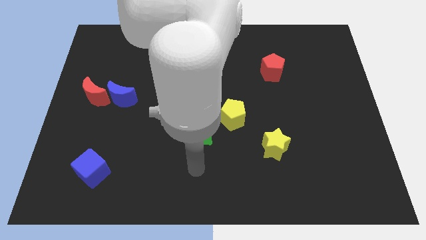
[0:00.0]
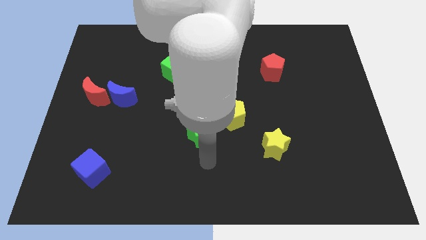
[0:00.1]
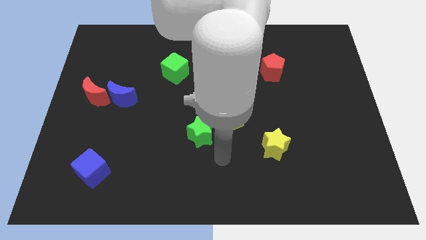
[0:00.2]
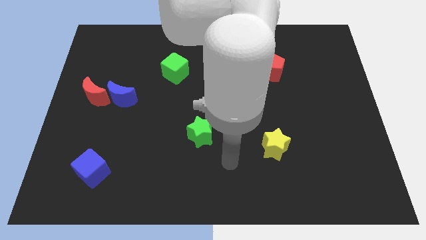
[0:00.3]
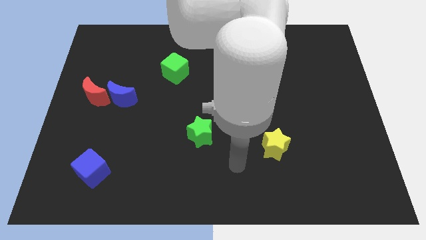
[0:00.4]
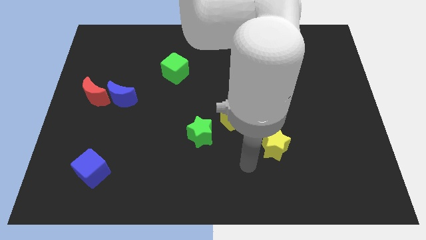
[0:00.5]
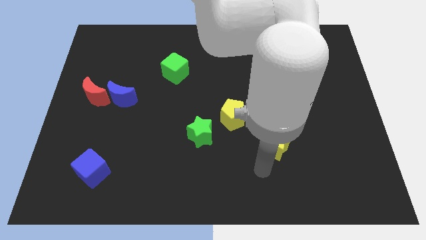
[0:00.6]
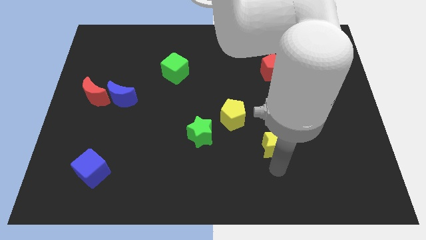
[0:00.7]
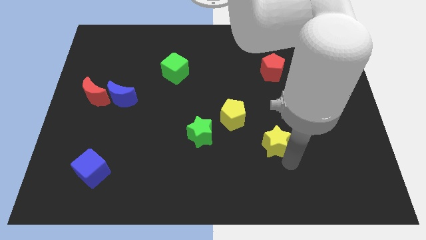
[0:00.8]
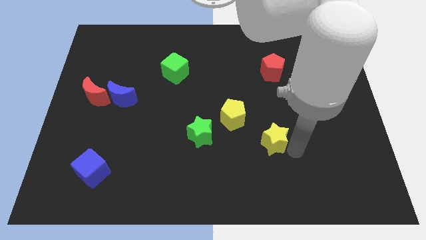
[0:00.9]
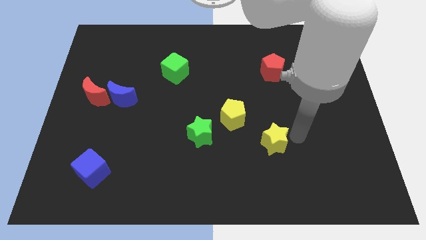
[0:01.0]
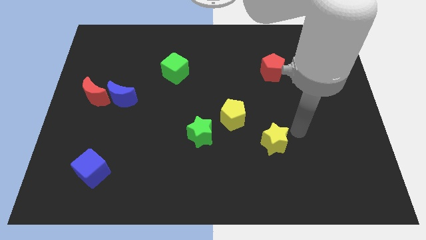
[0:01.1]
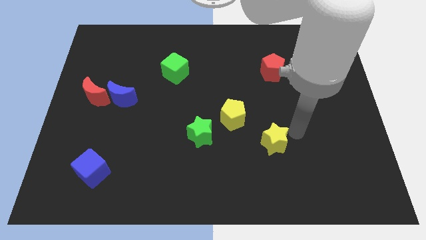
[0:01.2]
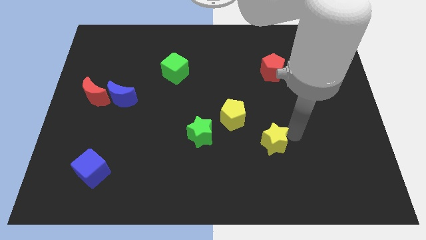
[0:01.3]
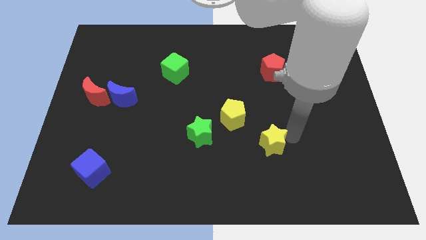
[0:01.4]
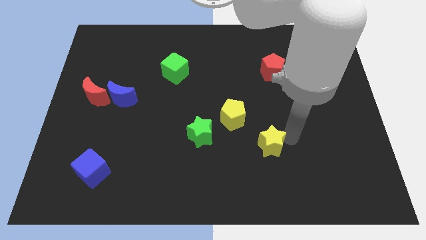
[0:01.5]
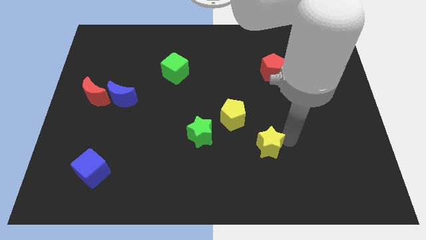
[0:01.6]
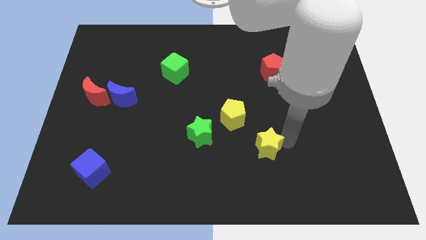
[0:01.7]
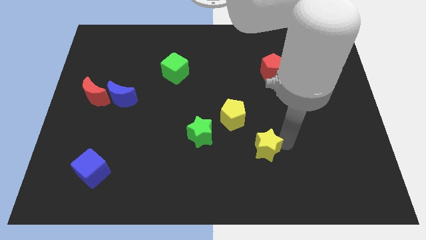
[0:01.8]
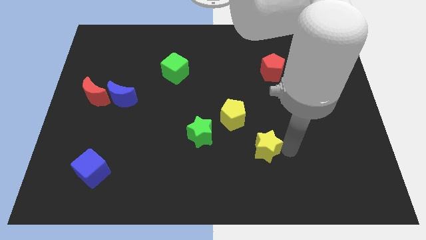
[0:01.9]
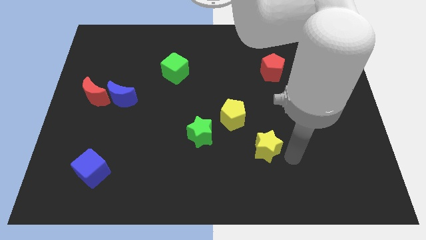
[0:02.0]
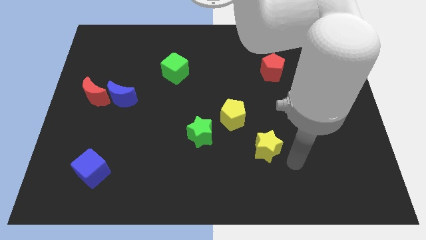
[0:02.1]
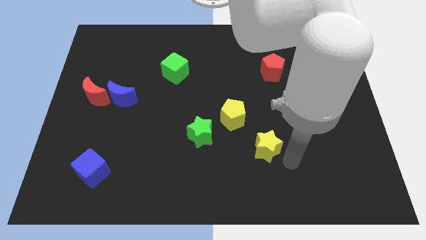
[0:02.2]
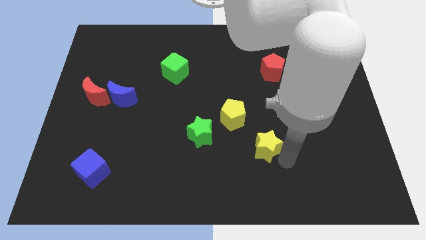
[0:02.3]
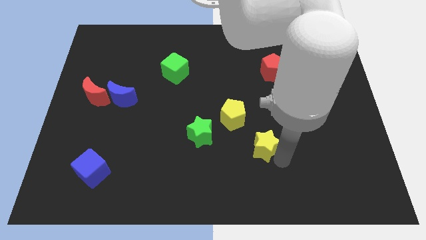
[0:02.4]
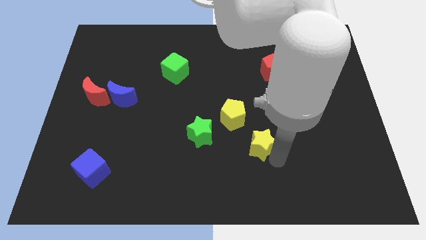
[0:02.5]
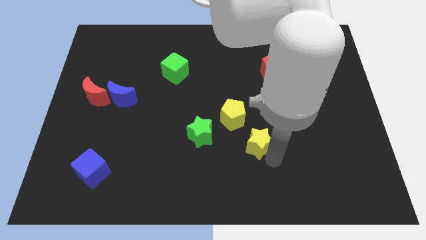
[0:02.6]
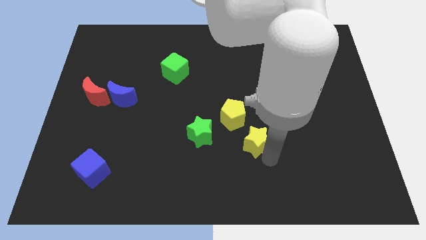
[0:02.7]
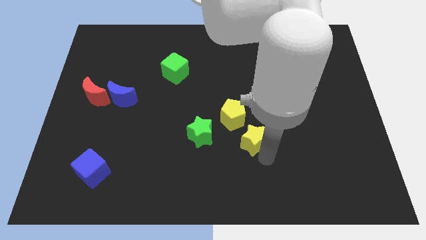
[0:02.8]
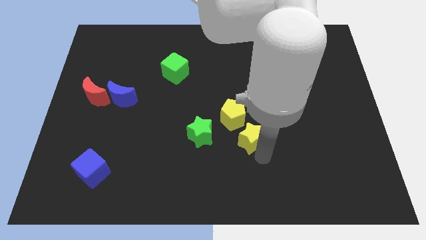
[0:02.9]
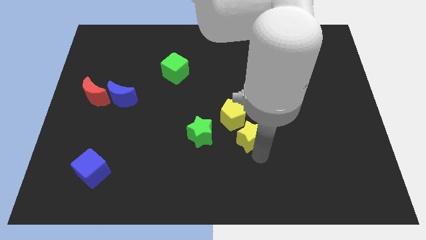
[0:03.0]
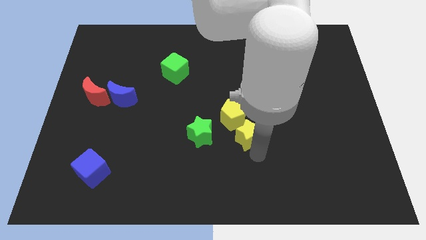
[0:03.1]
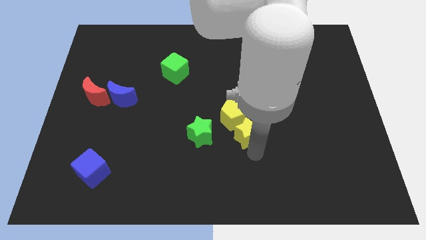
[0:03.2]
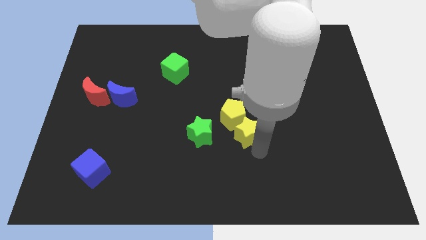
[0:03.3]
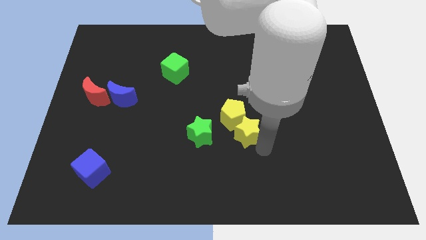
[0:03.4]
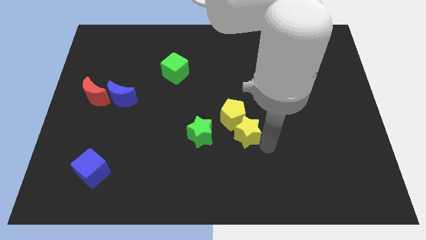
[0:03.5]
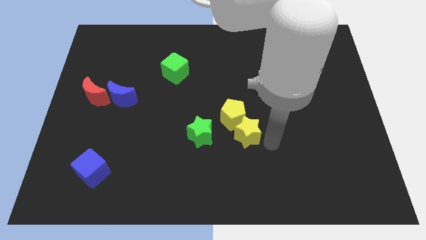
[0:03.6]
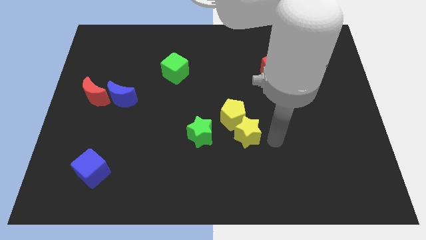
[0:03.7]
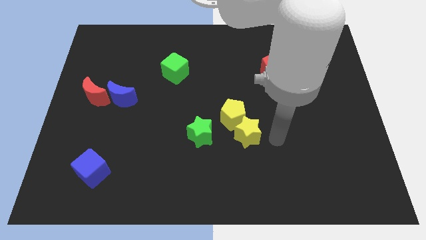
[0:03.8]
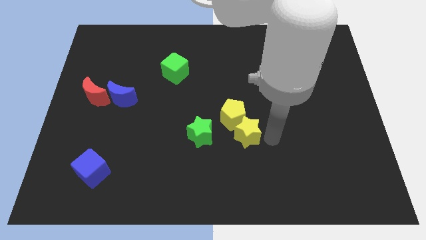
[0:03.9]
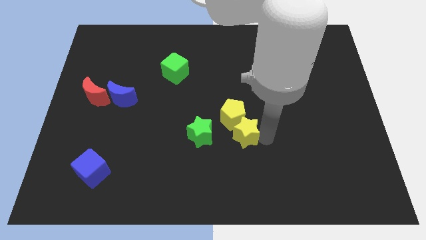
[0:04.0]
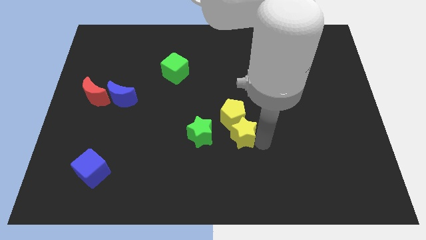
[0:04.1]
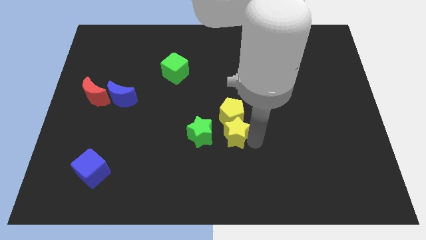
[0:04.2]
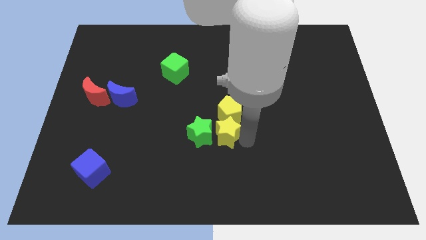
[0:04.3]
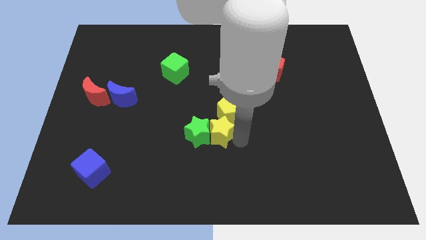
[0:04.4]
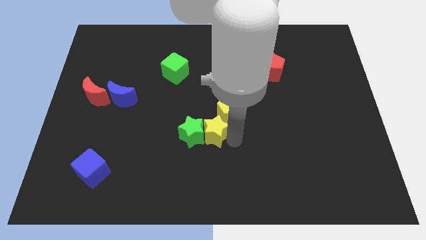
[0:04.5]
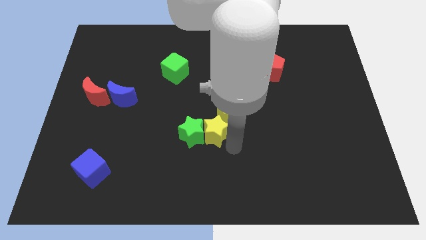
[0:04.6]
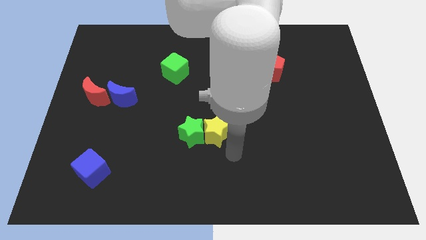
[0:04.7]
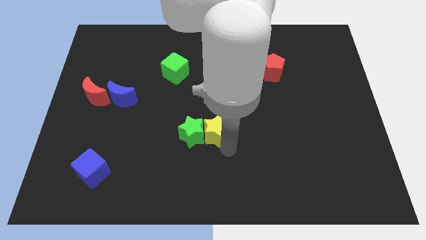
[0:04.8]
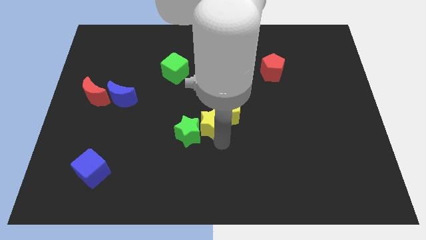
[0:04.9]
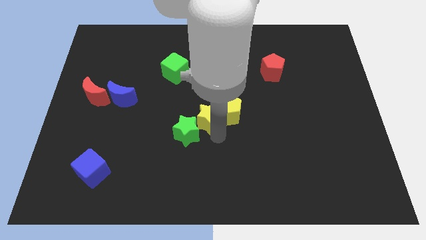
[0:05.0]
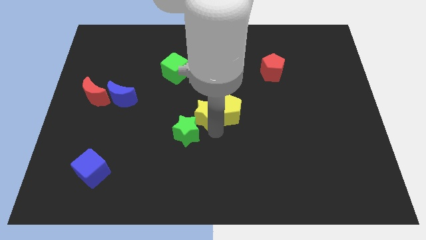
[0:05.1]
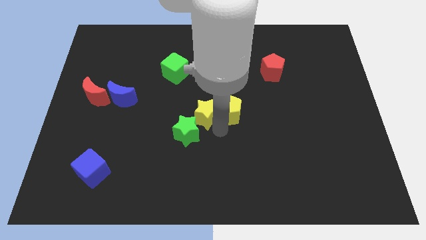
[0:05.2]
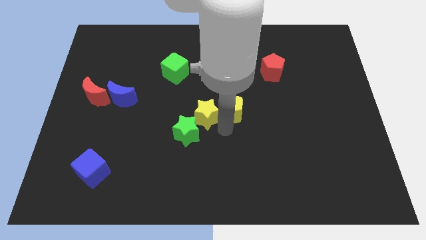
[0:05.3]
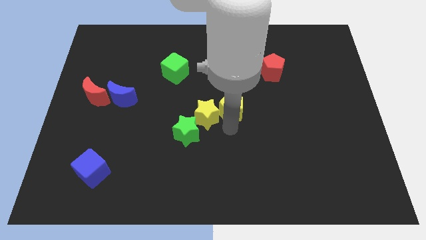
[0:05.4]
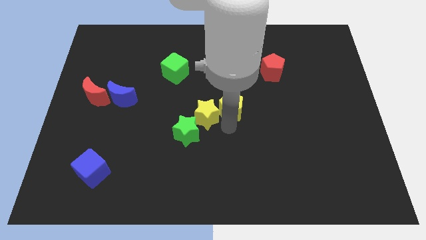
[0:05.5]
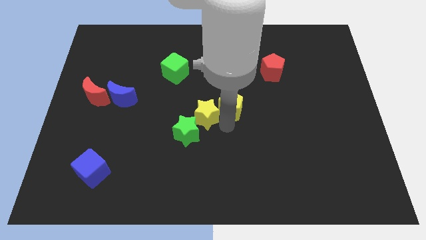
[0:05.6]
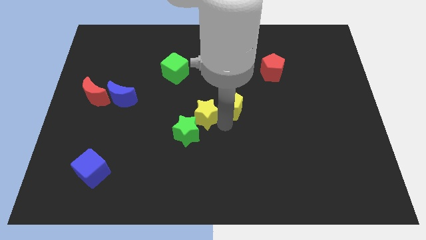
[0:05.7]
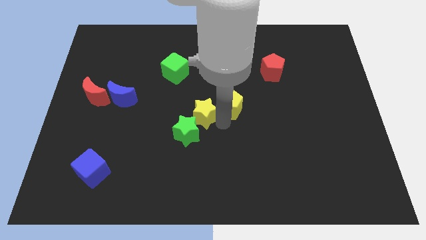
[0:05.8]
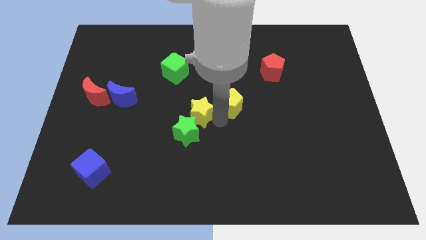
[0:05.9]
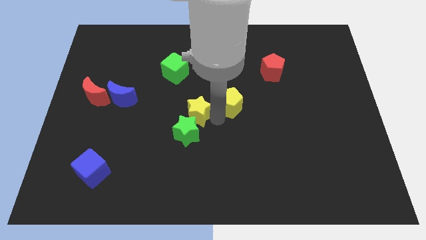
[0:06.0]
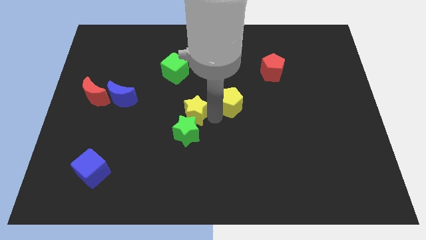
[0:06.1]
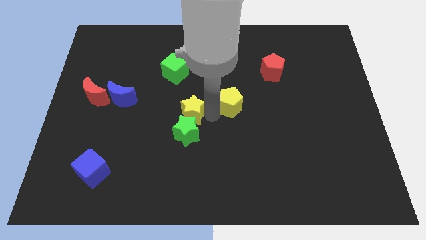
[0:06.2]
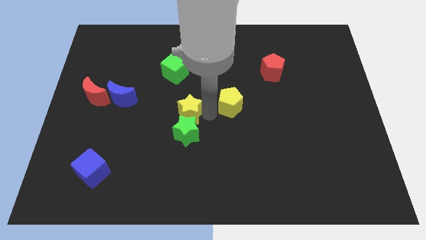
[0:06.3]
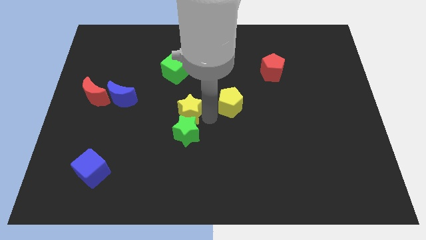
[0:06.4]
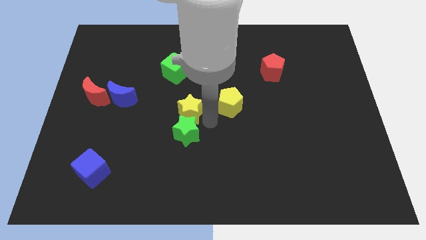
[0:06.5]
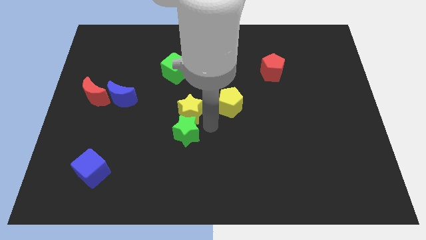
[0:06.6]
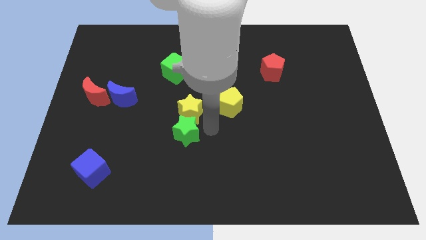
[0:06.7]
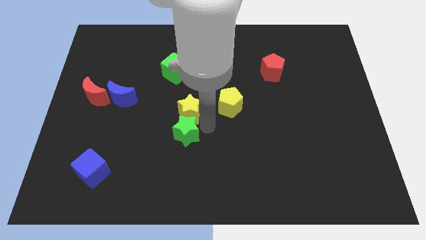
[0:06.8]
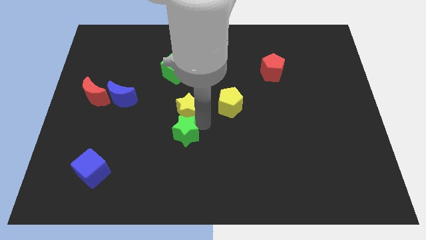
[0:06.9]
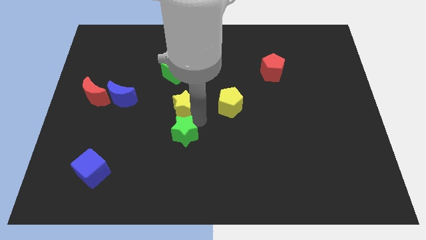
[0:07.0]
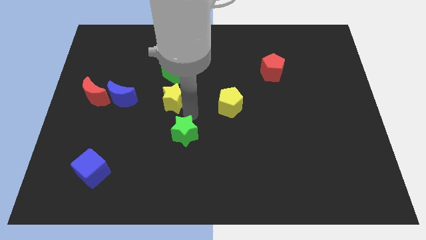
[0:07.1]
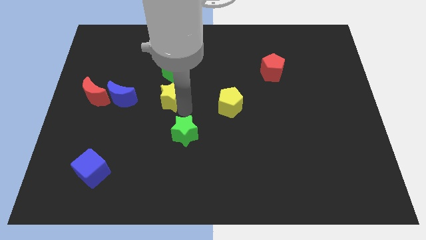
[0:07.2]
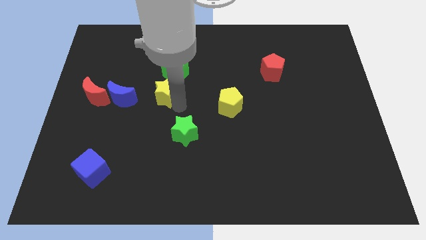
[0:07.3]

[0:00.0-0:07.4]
slide the yellow star to the bottom left of the green cube
